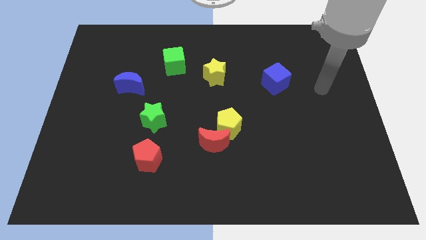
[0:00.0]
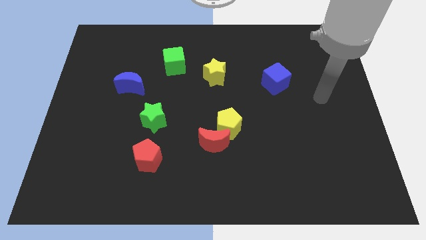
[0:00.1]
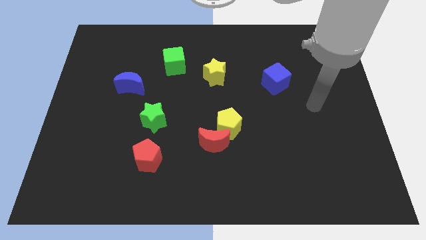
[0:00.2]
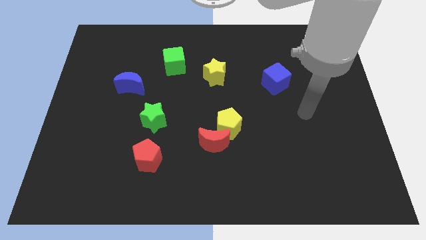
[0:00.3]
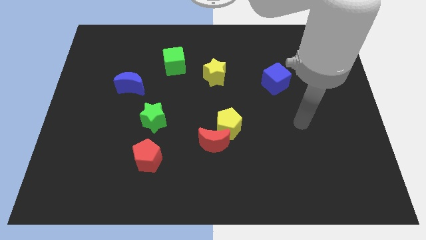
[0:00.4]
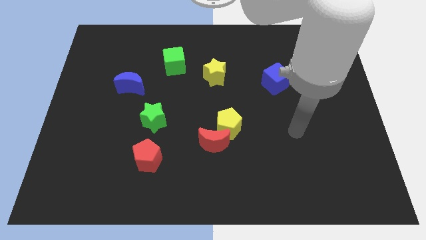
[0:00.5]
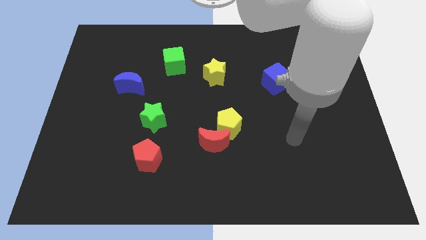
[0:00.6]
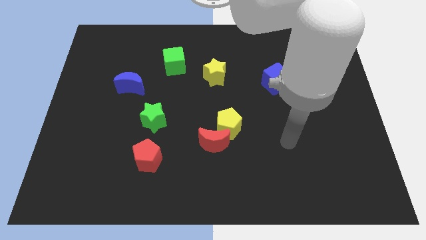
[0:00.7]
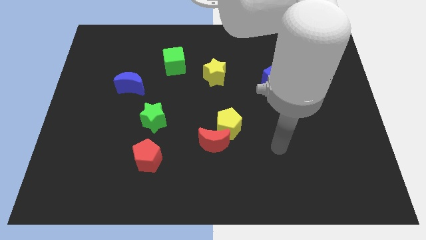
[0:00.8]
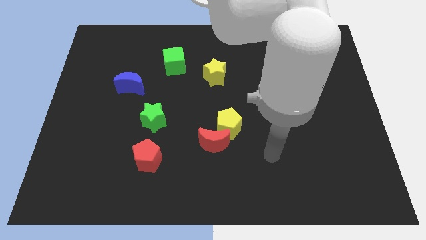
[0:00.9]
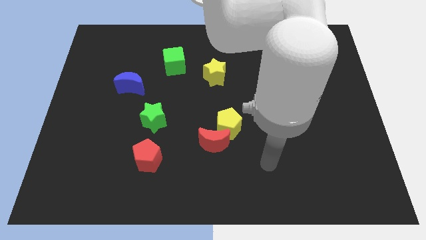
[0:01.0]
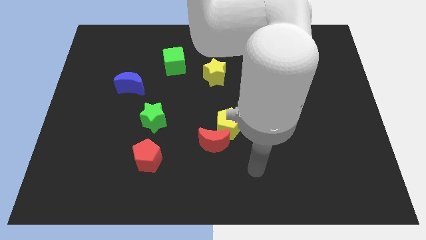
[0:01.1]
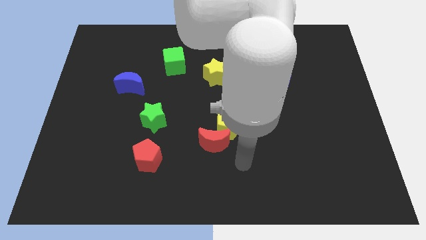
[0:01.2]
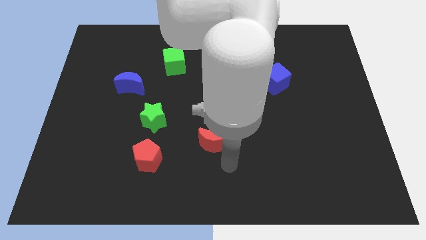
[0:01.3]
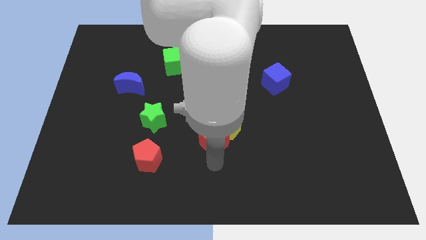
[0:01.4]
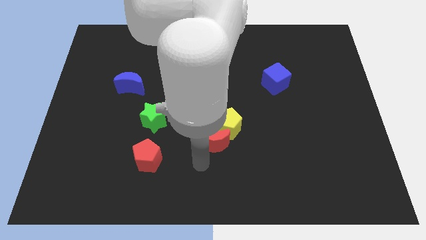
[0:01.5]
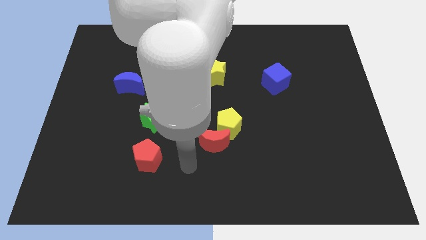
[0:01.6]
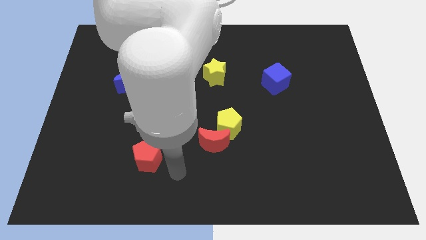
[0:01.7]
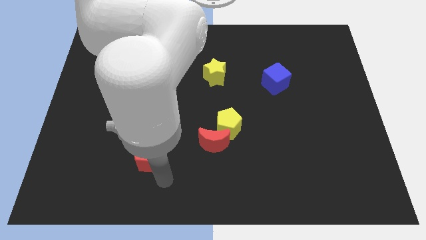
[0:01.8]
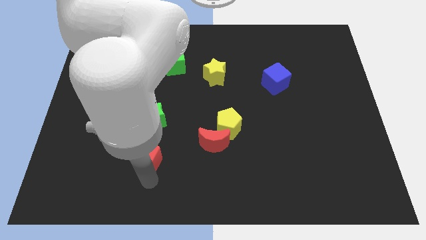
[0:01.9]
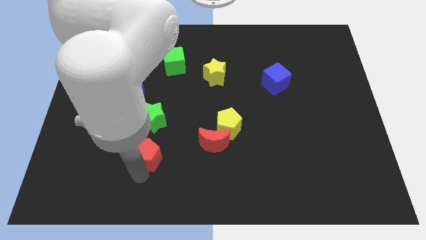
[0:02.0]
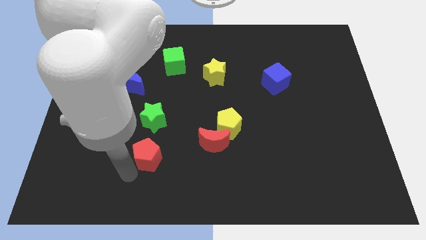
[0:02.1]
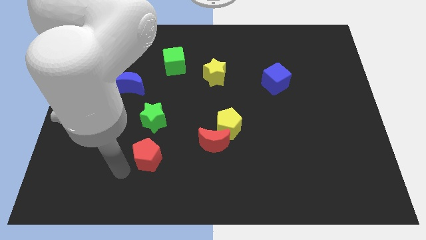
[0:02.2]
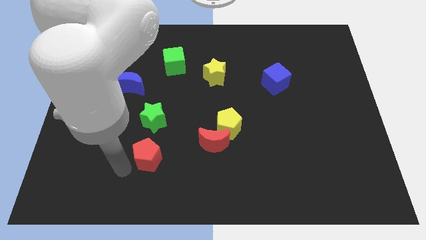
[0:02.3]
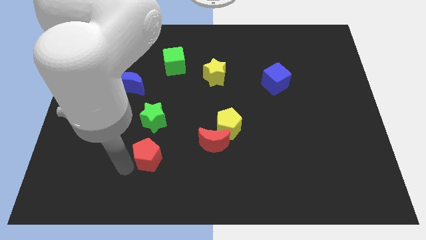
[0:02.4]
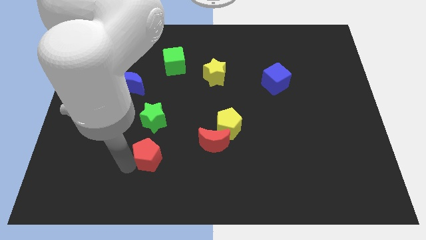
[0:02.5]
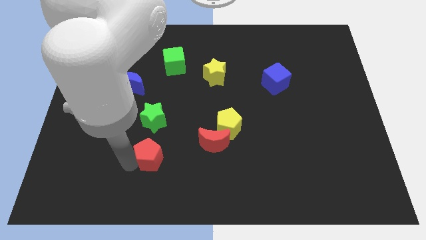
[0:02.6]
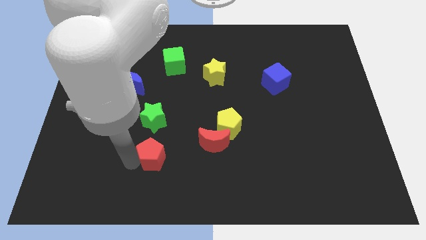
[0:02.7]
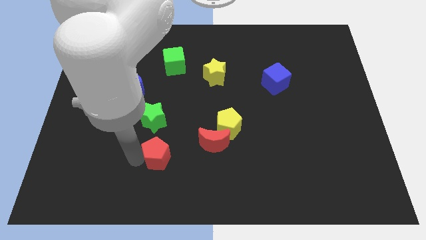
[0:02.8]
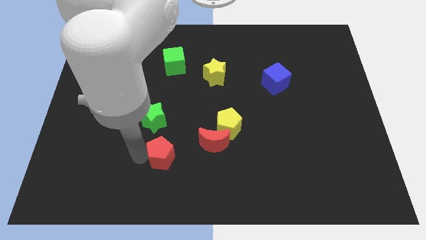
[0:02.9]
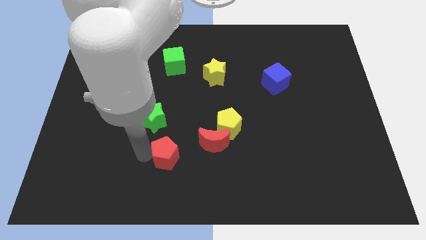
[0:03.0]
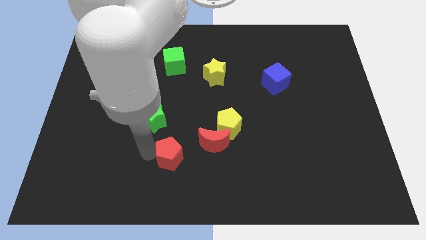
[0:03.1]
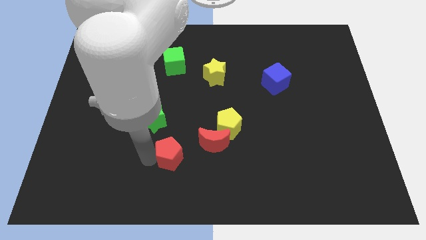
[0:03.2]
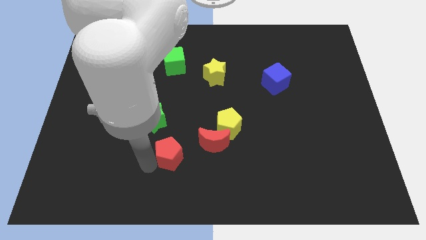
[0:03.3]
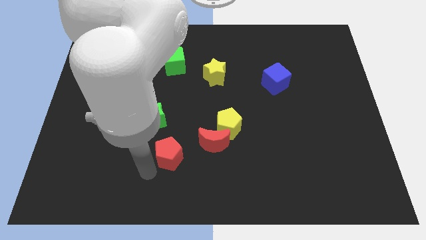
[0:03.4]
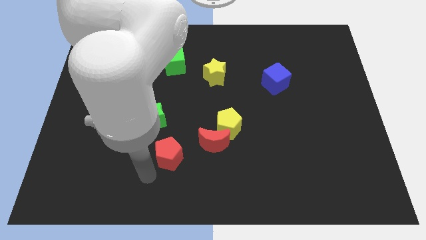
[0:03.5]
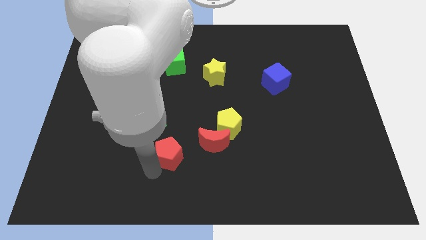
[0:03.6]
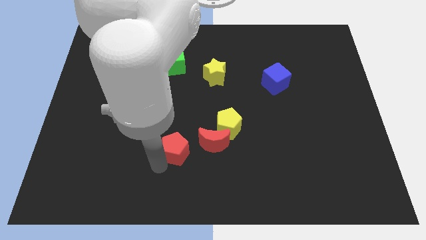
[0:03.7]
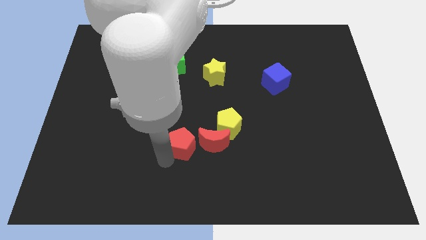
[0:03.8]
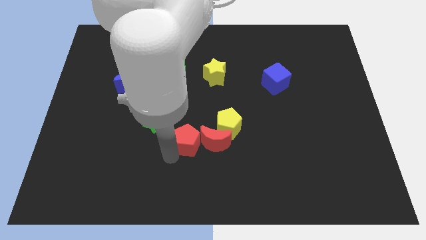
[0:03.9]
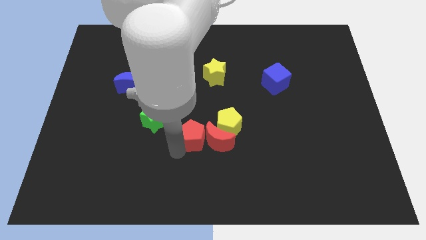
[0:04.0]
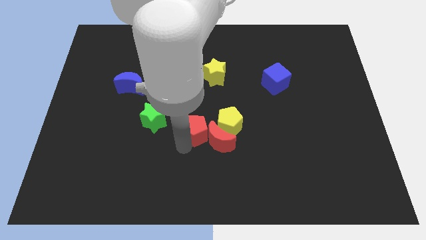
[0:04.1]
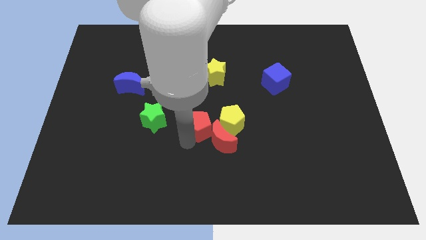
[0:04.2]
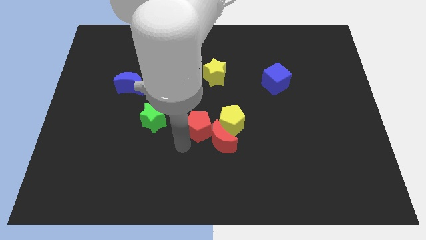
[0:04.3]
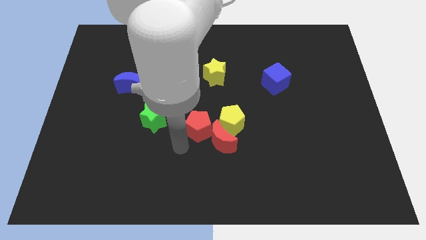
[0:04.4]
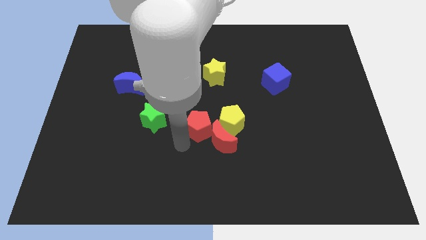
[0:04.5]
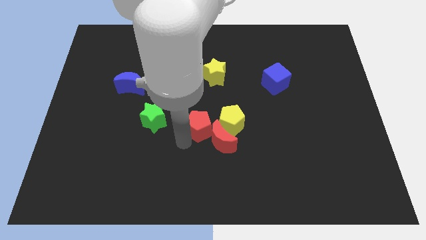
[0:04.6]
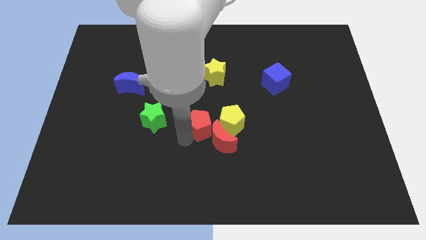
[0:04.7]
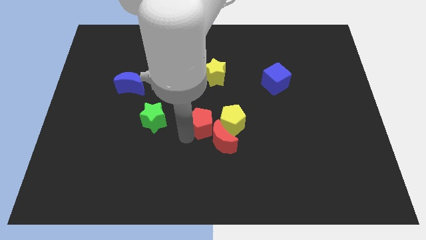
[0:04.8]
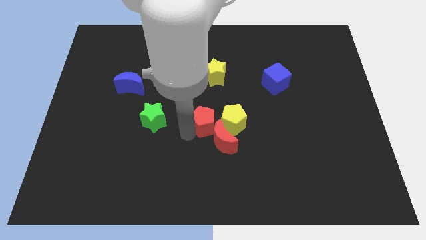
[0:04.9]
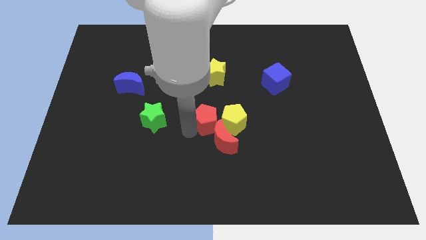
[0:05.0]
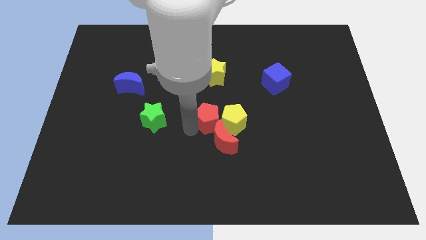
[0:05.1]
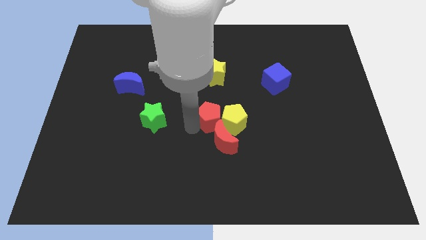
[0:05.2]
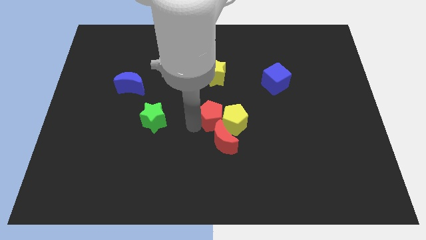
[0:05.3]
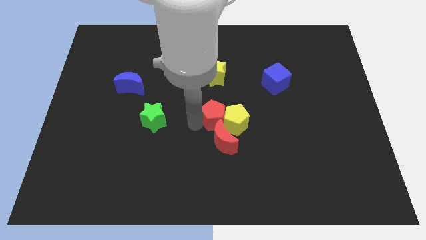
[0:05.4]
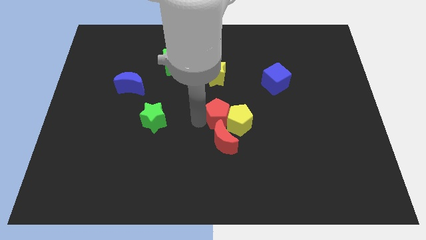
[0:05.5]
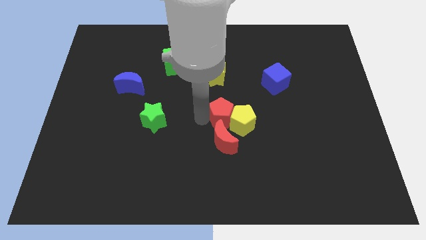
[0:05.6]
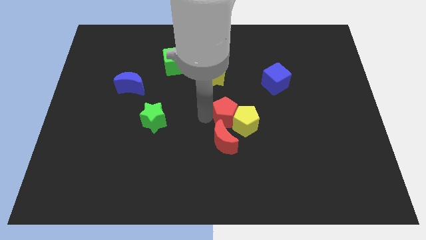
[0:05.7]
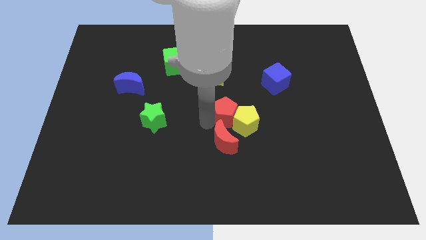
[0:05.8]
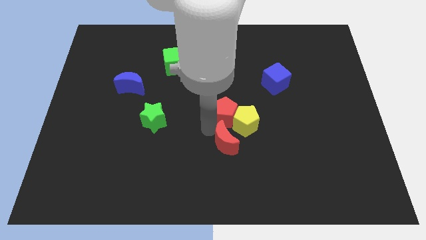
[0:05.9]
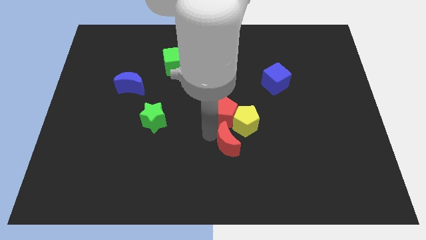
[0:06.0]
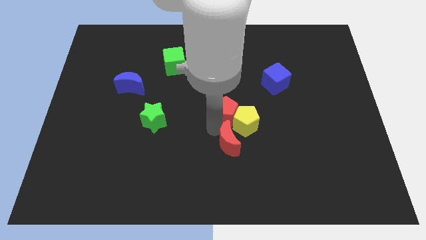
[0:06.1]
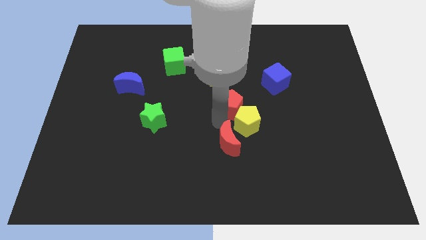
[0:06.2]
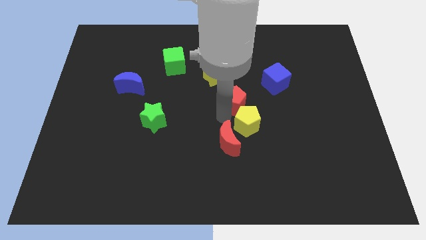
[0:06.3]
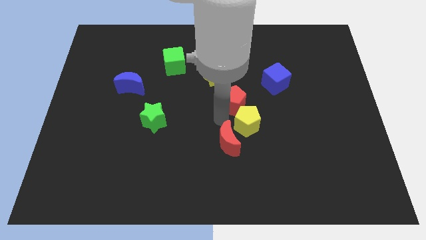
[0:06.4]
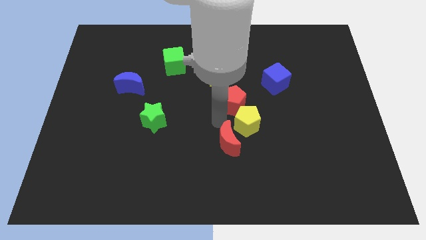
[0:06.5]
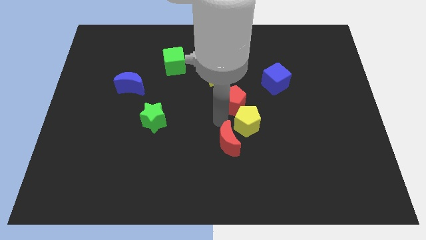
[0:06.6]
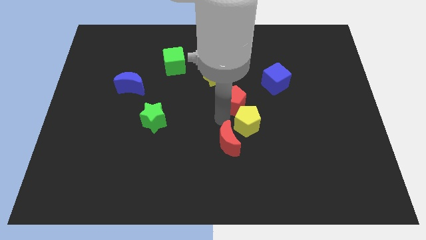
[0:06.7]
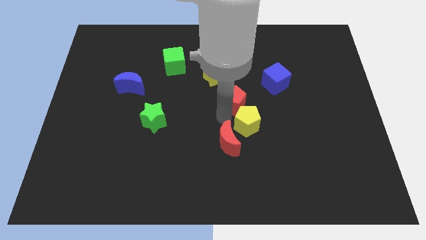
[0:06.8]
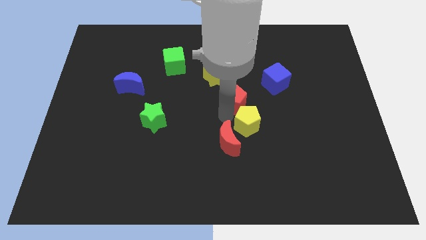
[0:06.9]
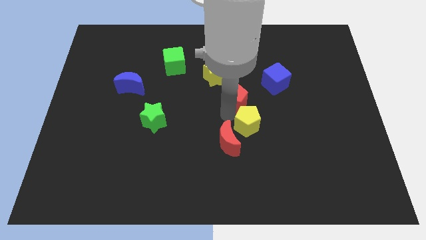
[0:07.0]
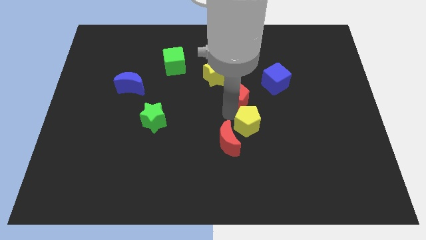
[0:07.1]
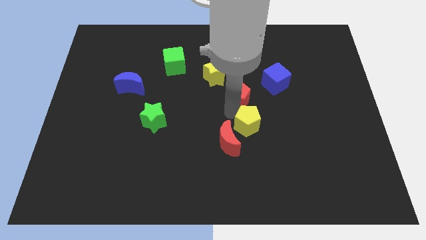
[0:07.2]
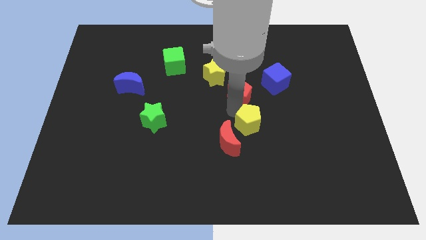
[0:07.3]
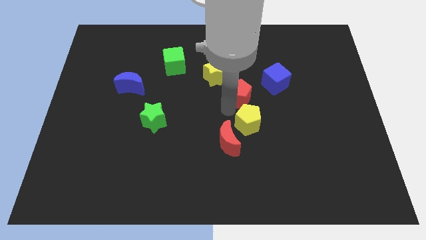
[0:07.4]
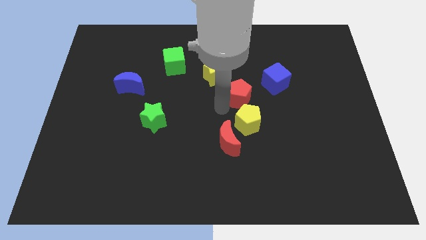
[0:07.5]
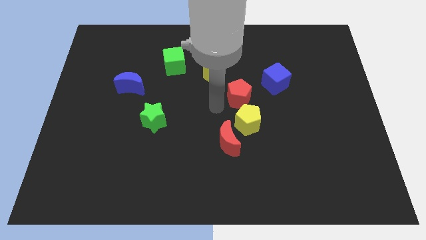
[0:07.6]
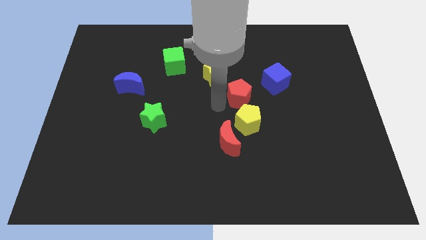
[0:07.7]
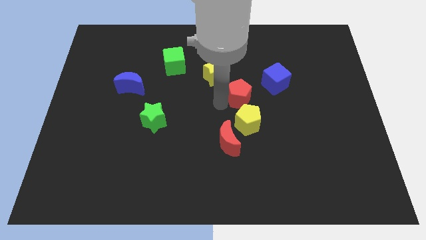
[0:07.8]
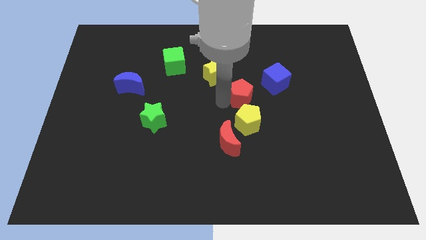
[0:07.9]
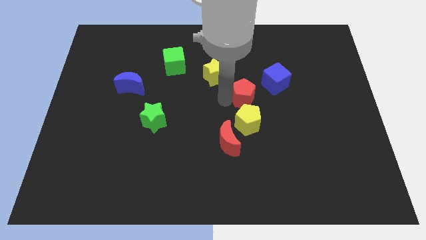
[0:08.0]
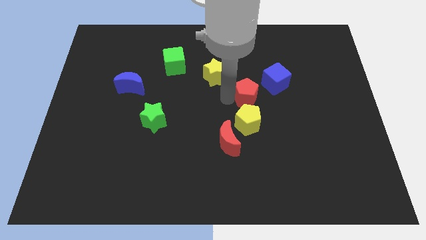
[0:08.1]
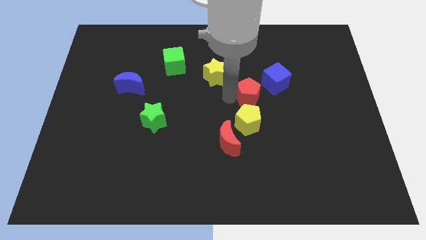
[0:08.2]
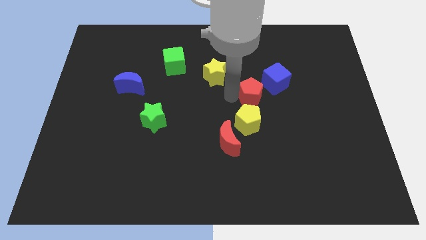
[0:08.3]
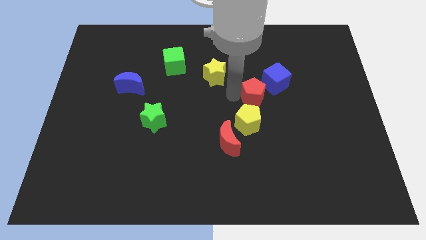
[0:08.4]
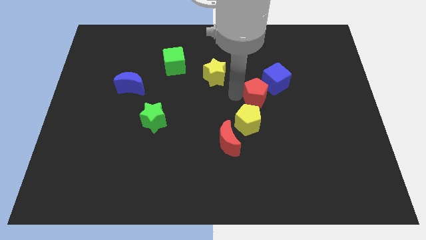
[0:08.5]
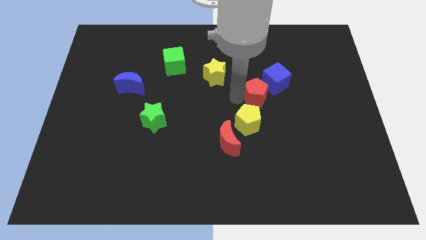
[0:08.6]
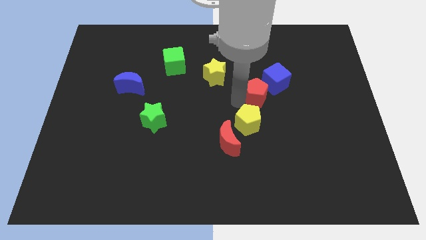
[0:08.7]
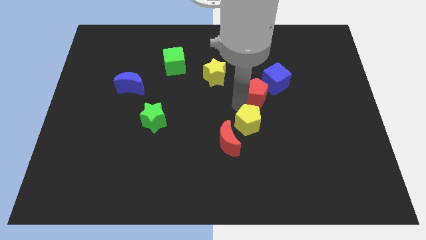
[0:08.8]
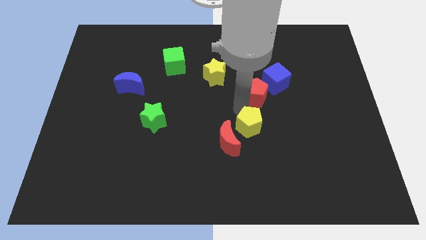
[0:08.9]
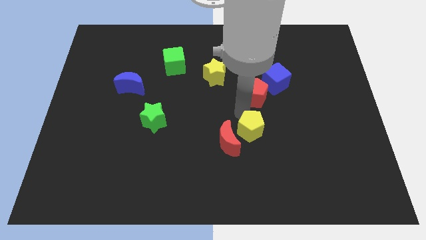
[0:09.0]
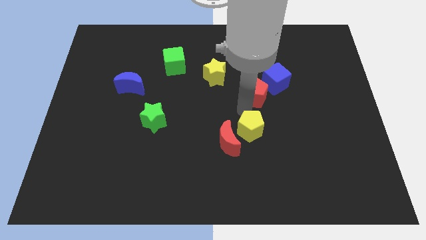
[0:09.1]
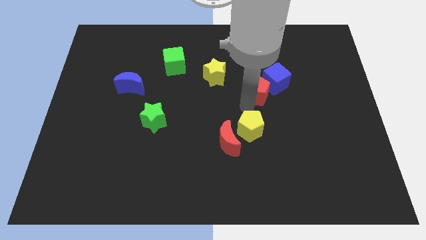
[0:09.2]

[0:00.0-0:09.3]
put the red pentagon next to the blue cube
